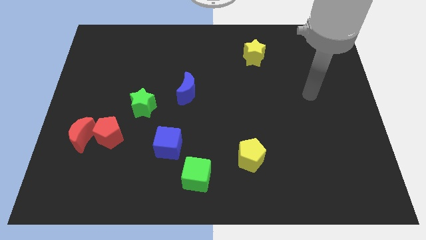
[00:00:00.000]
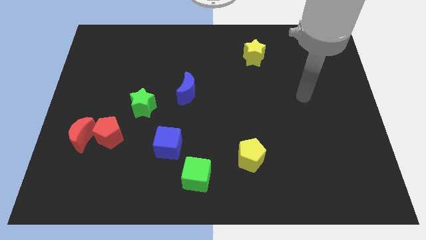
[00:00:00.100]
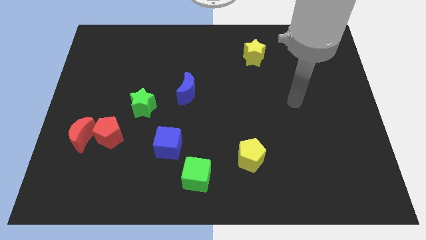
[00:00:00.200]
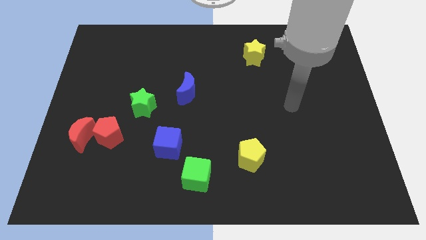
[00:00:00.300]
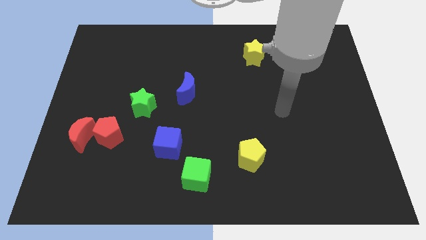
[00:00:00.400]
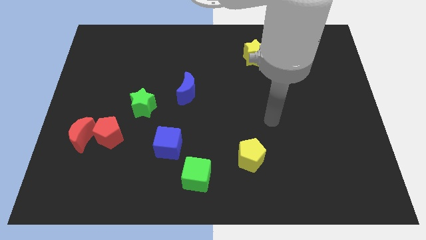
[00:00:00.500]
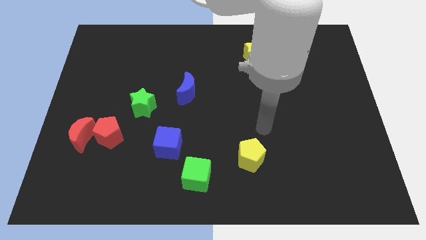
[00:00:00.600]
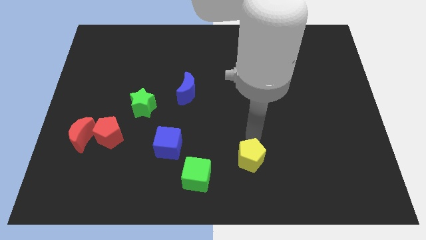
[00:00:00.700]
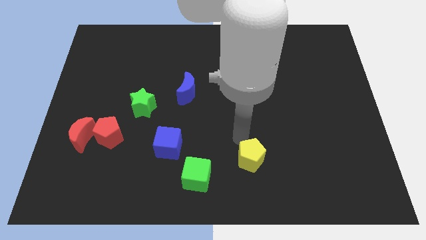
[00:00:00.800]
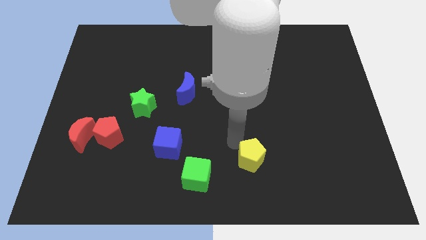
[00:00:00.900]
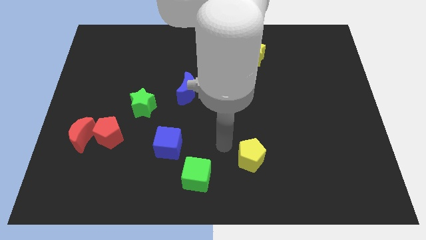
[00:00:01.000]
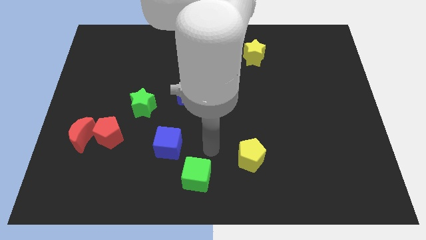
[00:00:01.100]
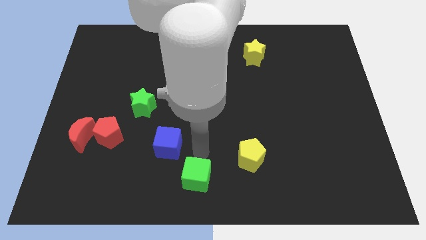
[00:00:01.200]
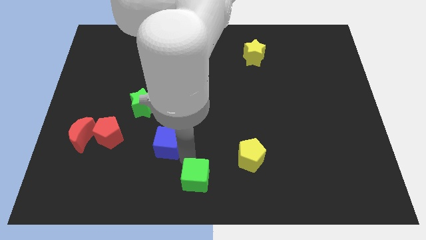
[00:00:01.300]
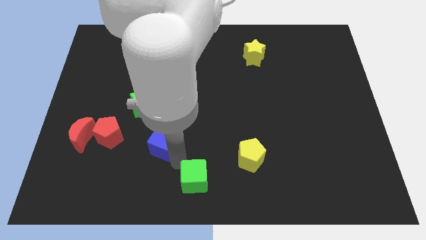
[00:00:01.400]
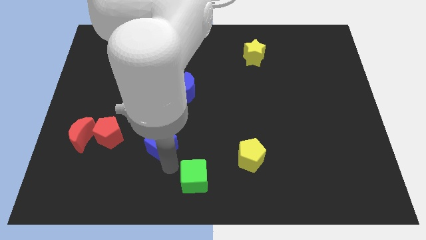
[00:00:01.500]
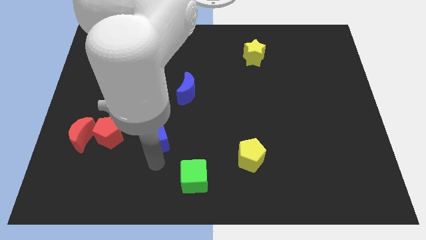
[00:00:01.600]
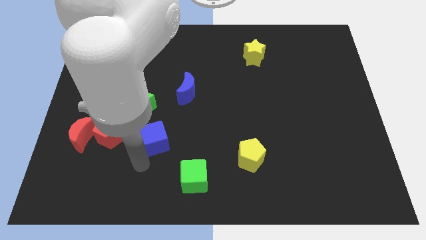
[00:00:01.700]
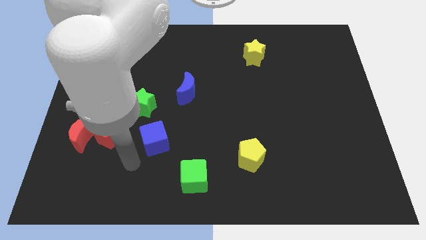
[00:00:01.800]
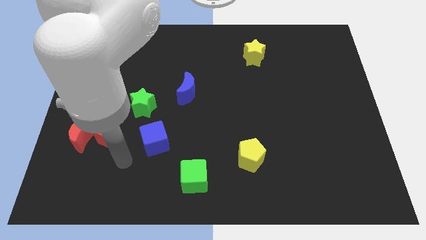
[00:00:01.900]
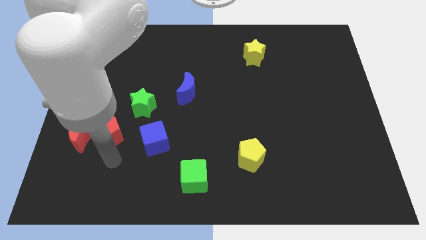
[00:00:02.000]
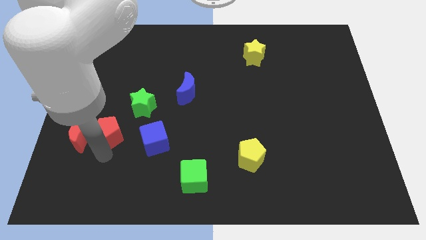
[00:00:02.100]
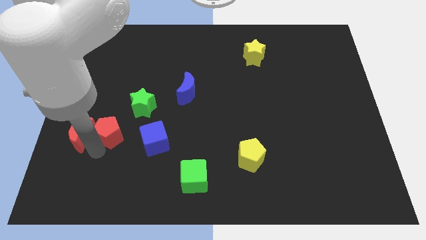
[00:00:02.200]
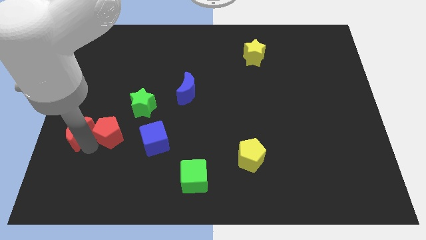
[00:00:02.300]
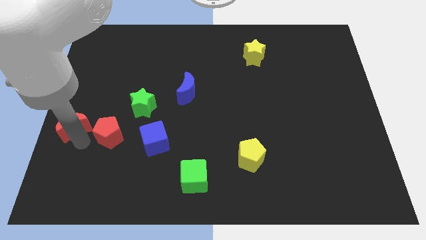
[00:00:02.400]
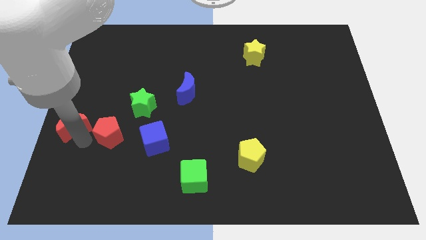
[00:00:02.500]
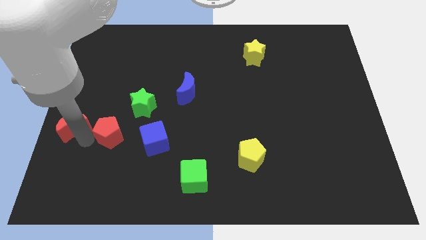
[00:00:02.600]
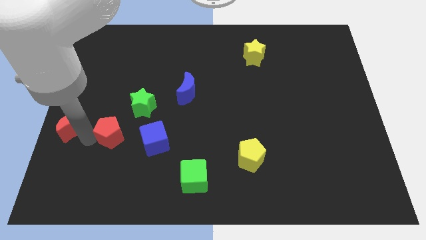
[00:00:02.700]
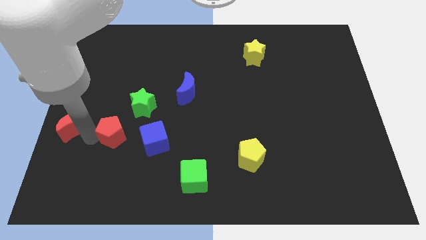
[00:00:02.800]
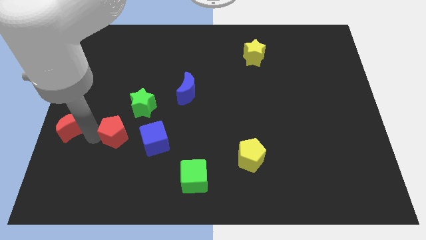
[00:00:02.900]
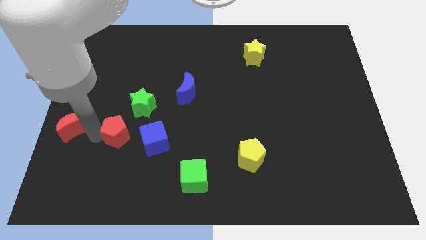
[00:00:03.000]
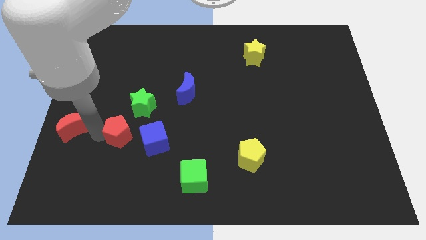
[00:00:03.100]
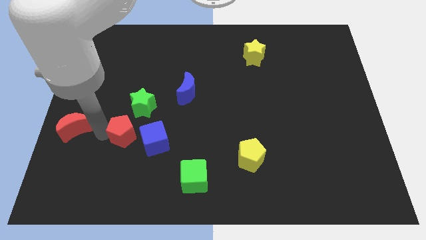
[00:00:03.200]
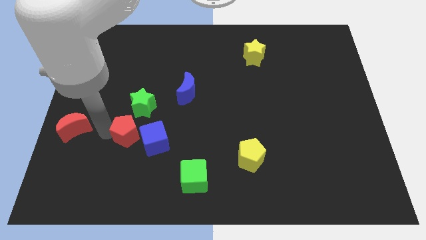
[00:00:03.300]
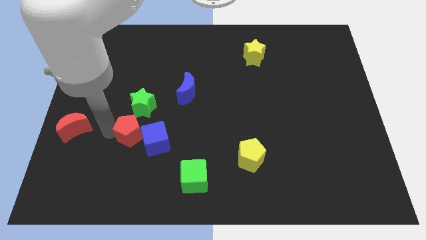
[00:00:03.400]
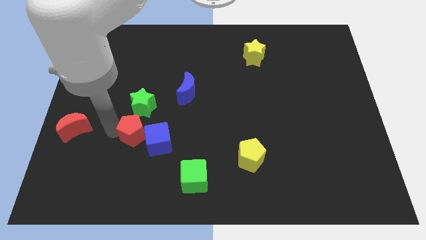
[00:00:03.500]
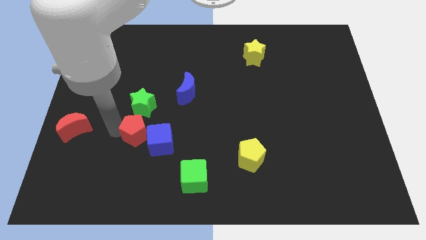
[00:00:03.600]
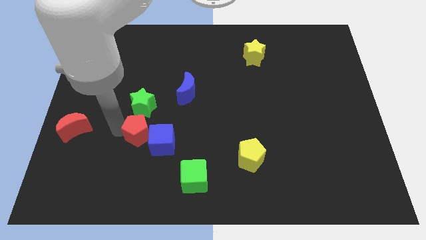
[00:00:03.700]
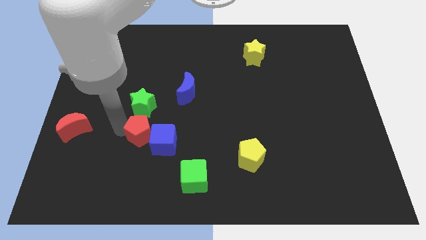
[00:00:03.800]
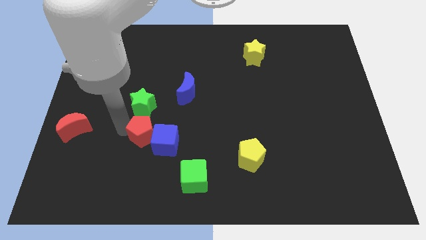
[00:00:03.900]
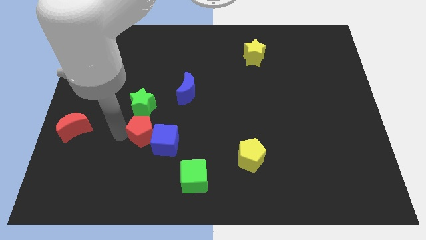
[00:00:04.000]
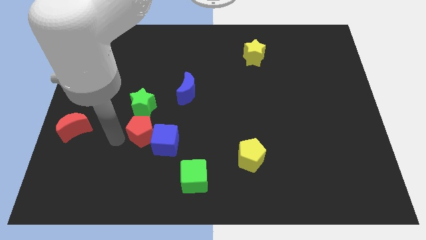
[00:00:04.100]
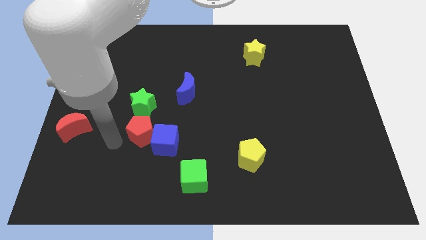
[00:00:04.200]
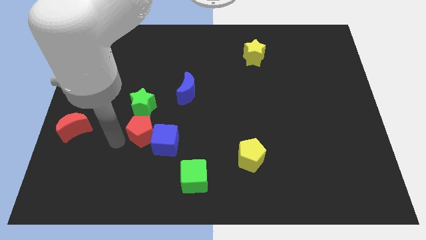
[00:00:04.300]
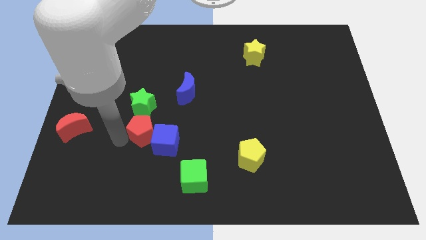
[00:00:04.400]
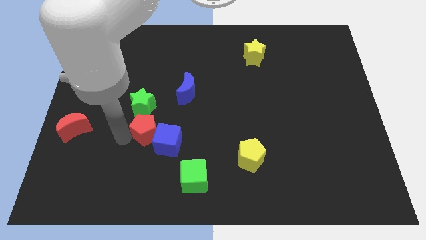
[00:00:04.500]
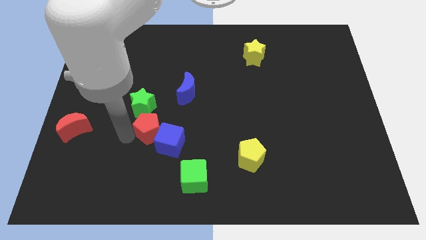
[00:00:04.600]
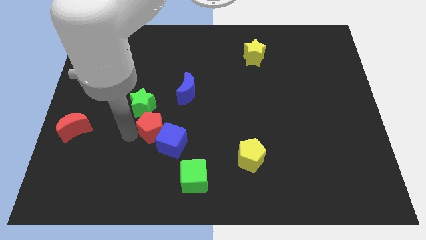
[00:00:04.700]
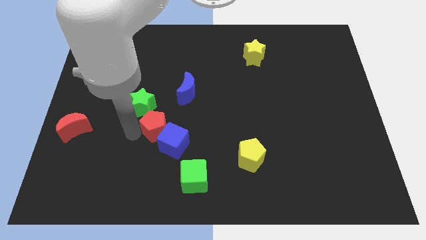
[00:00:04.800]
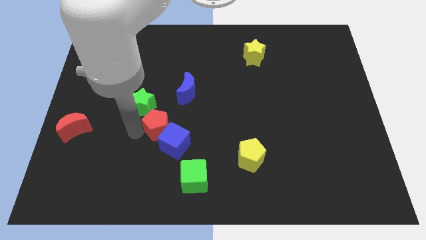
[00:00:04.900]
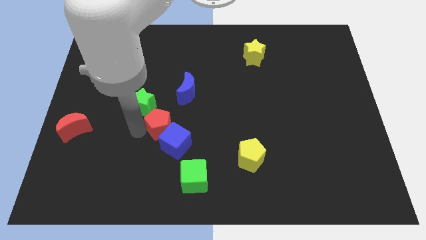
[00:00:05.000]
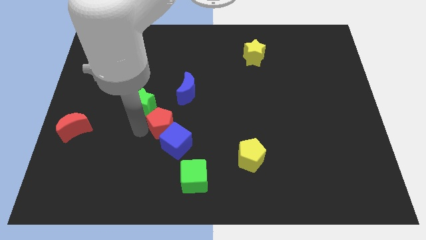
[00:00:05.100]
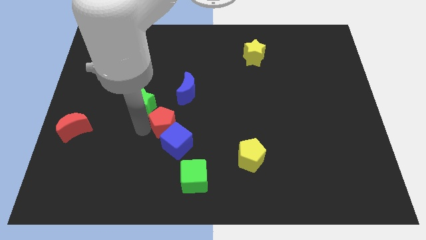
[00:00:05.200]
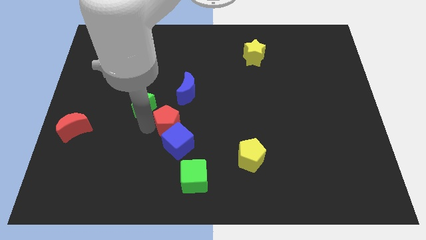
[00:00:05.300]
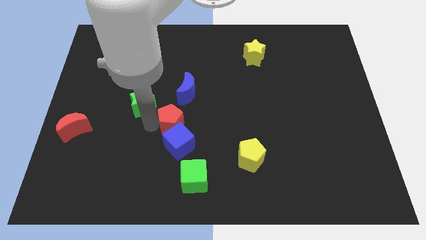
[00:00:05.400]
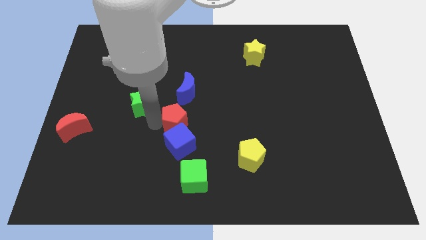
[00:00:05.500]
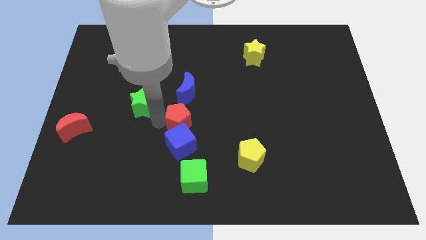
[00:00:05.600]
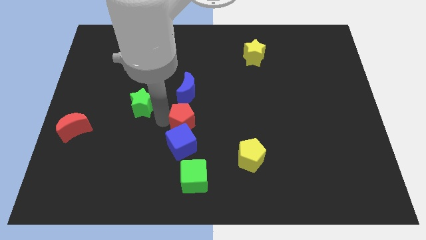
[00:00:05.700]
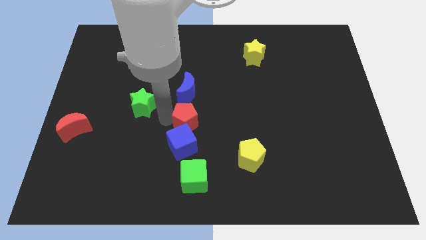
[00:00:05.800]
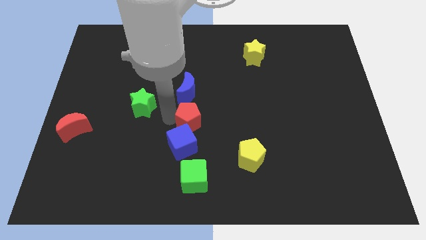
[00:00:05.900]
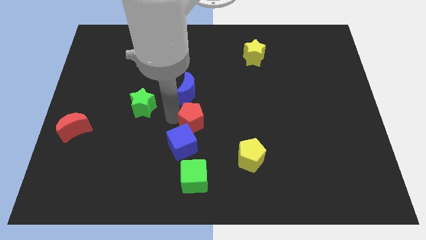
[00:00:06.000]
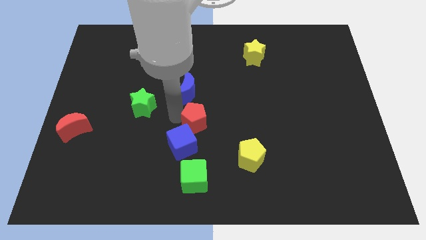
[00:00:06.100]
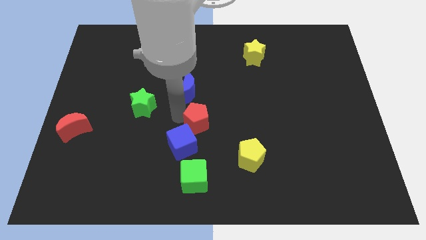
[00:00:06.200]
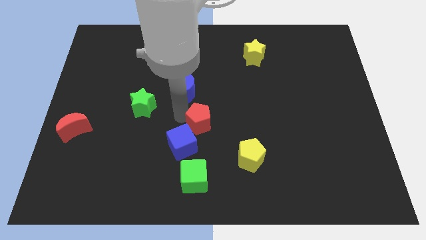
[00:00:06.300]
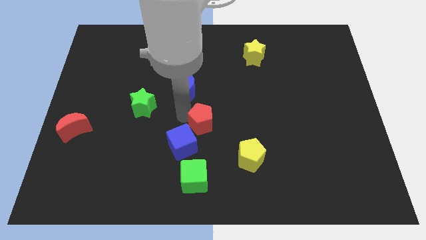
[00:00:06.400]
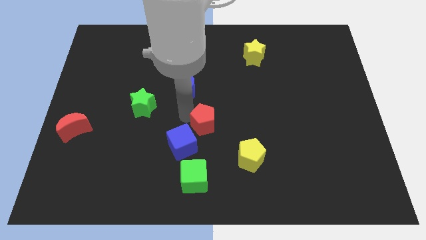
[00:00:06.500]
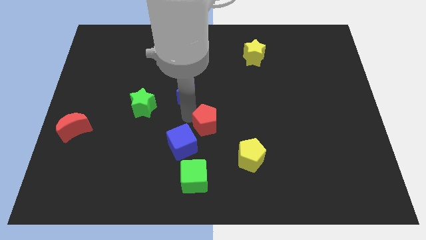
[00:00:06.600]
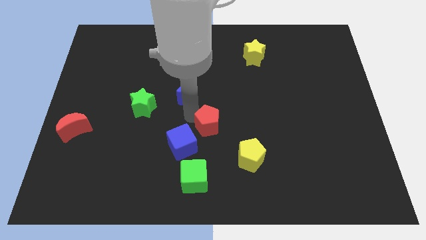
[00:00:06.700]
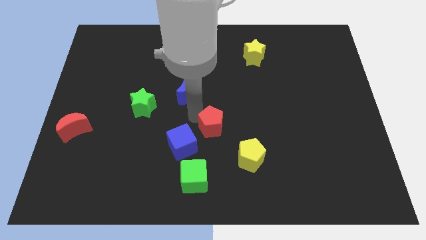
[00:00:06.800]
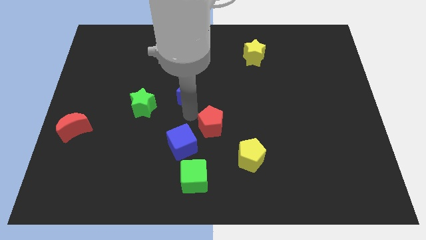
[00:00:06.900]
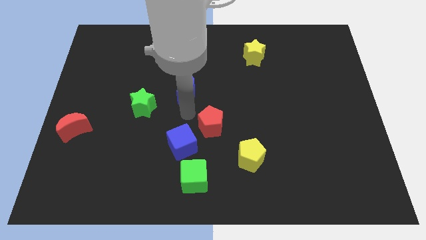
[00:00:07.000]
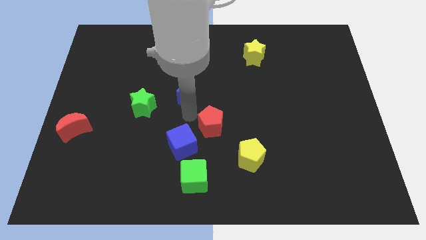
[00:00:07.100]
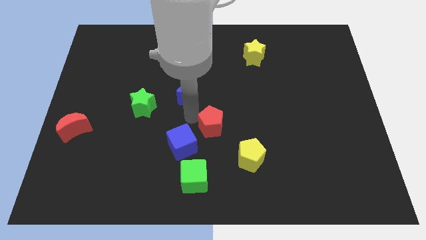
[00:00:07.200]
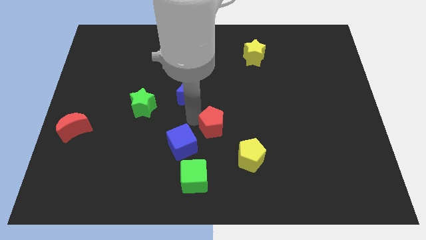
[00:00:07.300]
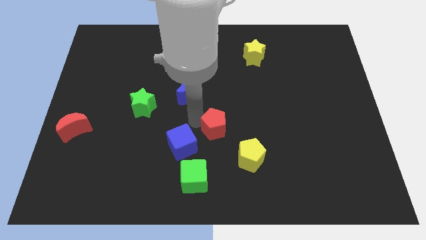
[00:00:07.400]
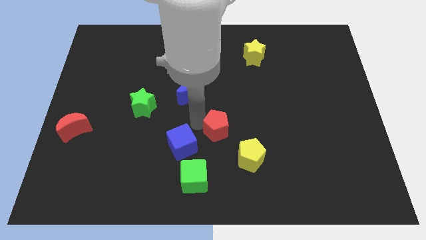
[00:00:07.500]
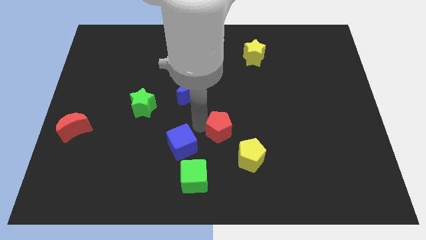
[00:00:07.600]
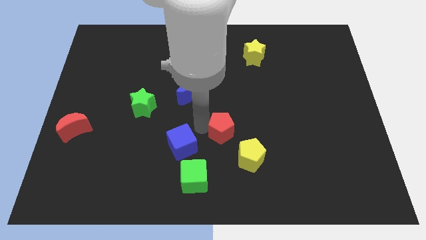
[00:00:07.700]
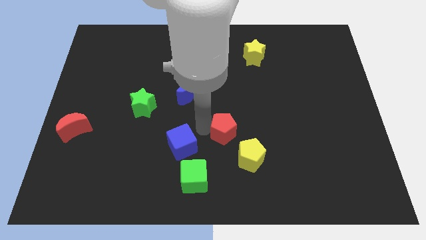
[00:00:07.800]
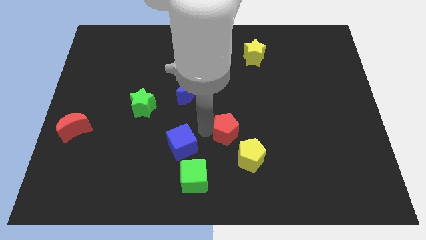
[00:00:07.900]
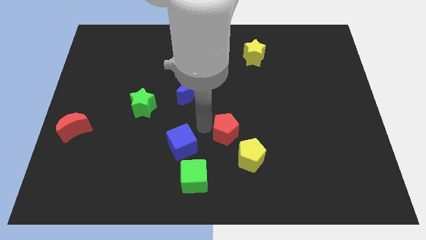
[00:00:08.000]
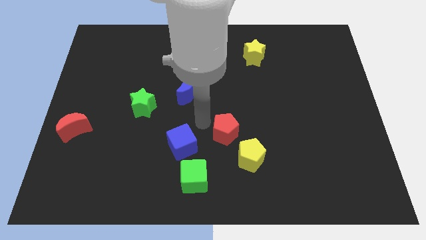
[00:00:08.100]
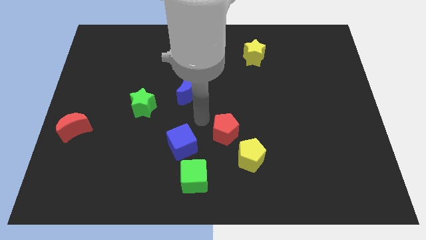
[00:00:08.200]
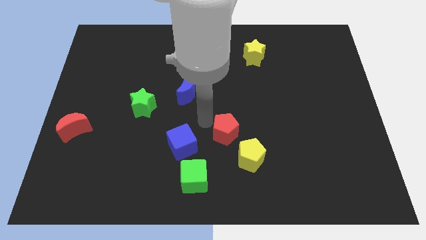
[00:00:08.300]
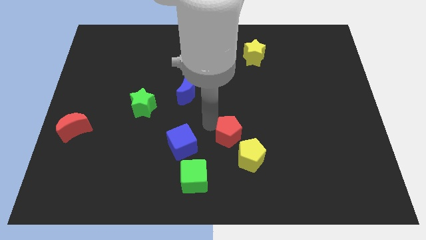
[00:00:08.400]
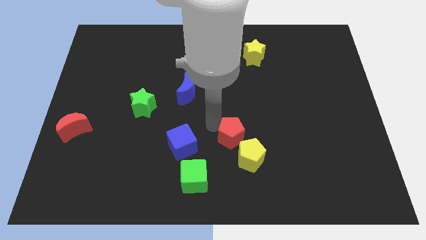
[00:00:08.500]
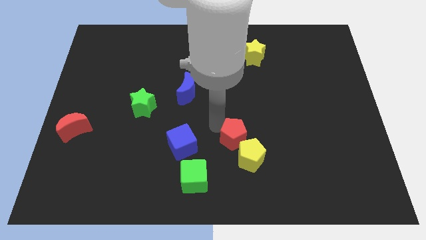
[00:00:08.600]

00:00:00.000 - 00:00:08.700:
slide the red pentagon towards the yellow pentagon
